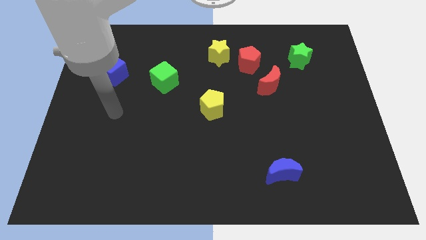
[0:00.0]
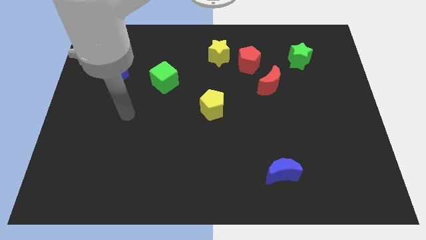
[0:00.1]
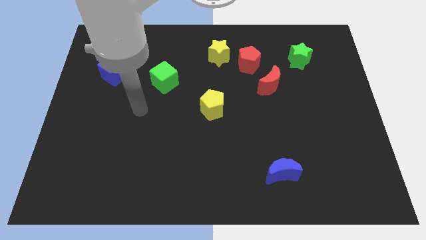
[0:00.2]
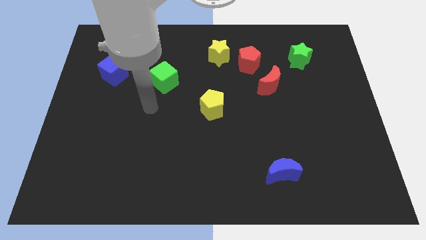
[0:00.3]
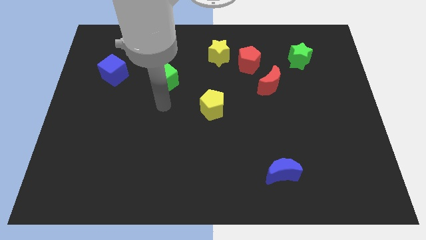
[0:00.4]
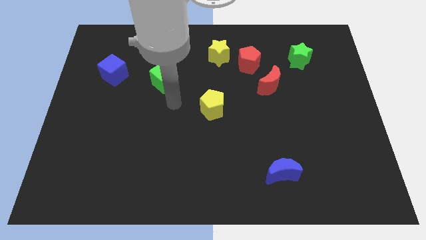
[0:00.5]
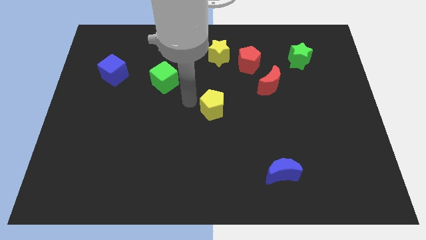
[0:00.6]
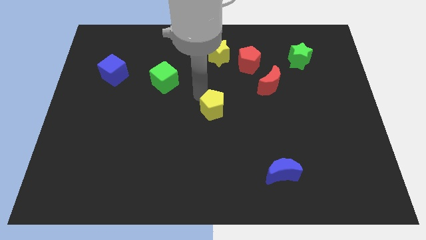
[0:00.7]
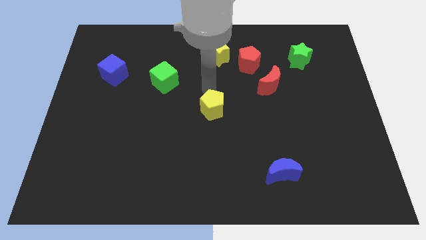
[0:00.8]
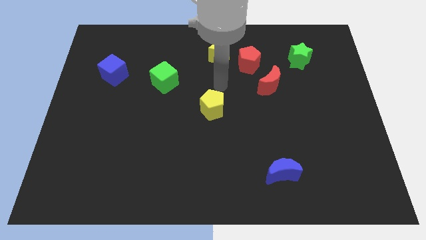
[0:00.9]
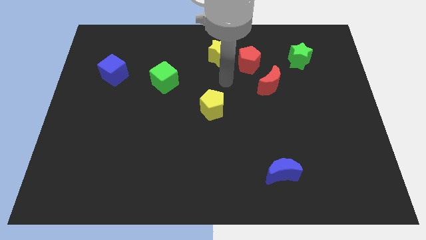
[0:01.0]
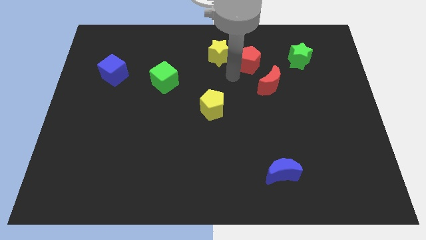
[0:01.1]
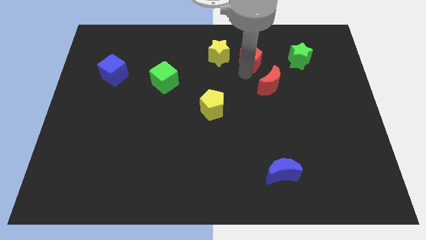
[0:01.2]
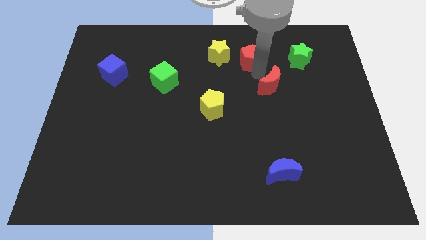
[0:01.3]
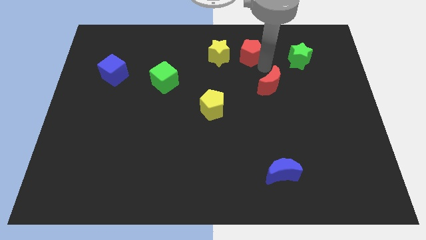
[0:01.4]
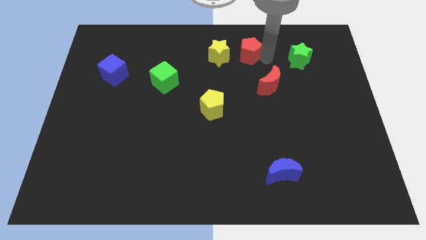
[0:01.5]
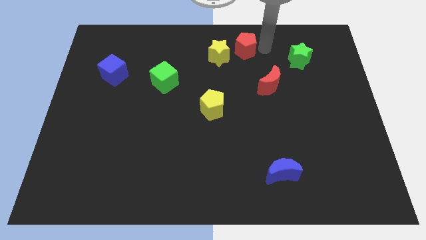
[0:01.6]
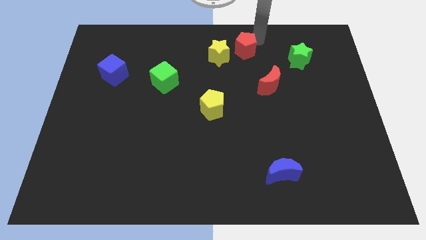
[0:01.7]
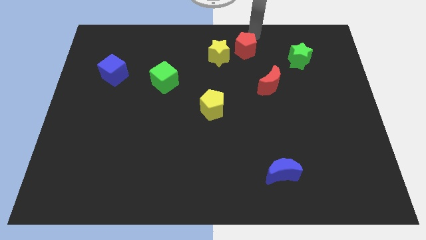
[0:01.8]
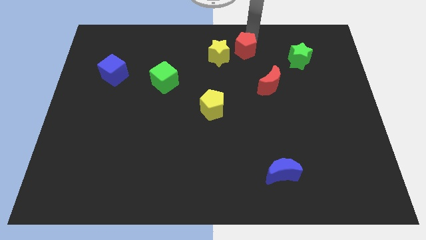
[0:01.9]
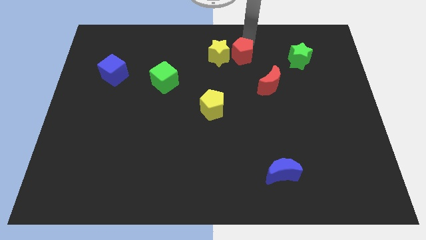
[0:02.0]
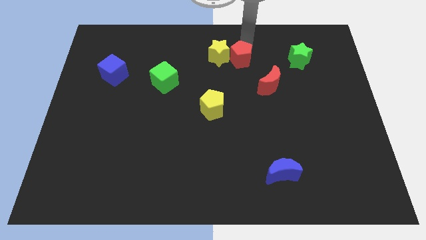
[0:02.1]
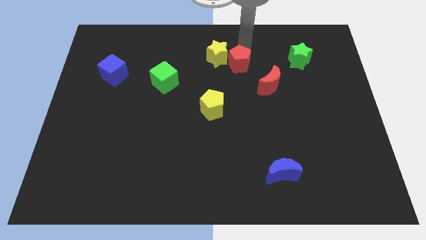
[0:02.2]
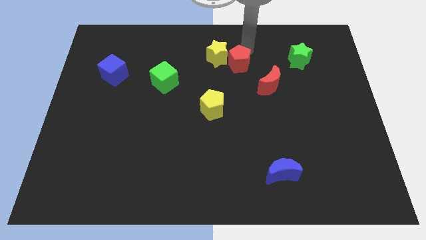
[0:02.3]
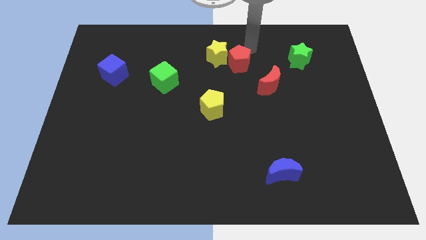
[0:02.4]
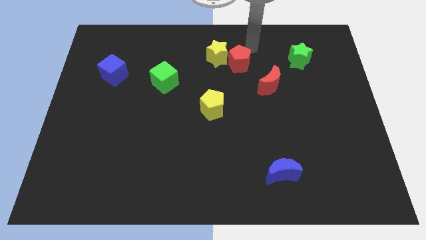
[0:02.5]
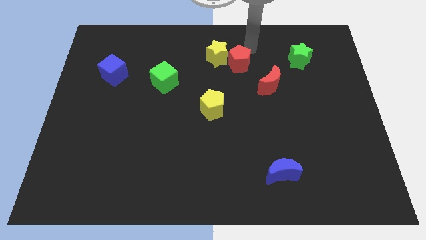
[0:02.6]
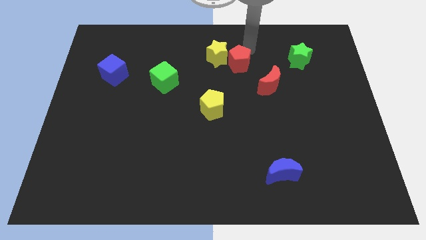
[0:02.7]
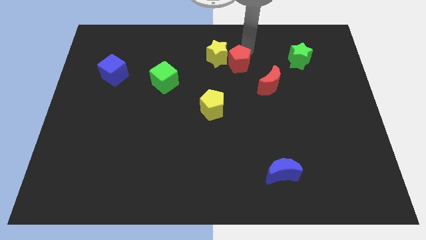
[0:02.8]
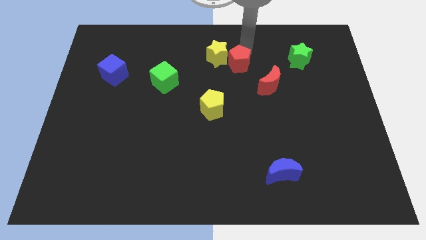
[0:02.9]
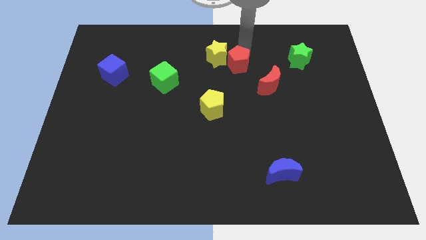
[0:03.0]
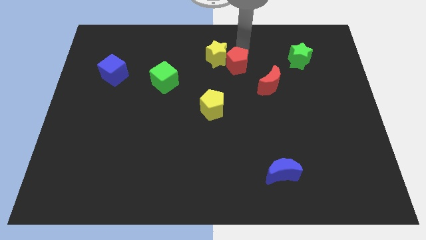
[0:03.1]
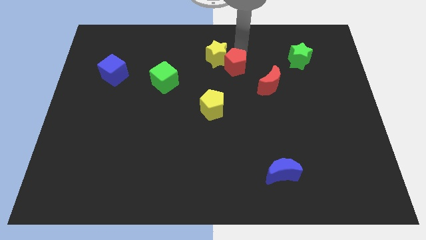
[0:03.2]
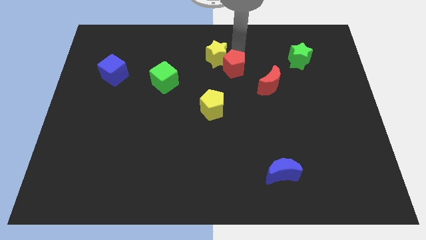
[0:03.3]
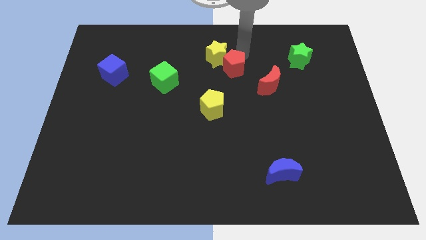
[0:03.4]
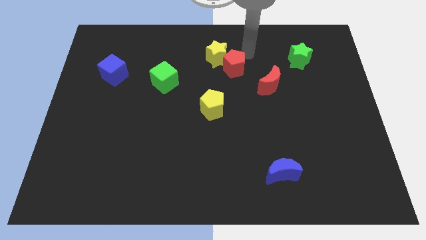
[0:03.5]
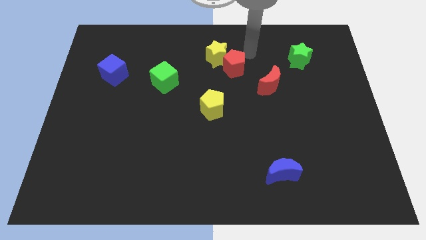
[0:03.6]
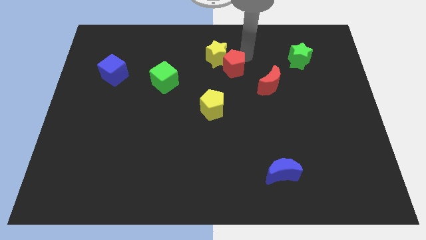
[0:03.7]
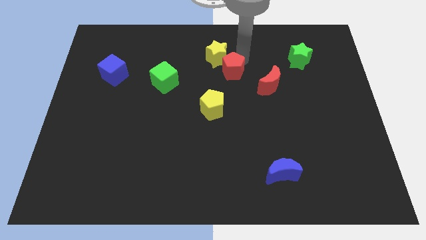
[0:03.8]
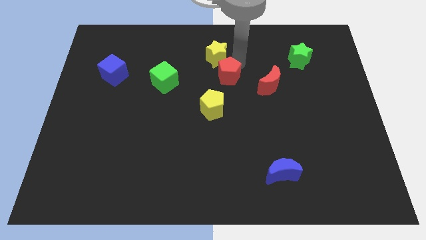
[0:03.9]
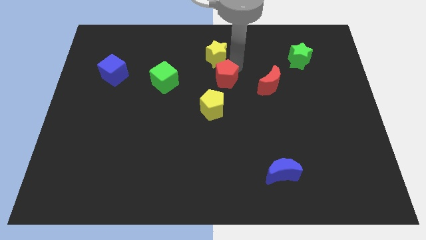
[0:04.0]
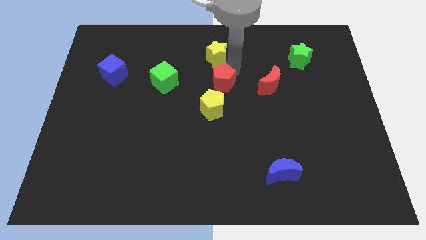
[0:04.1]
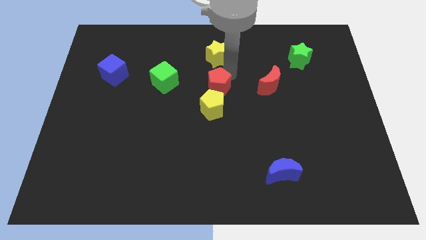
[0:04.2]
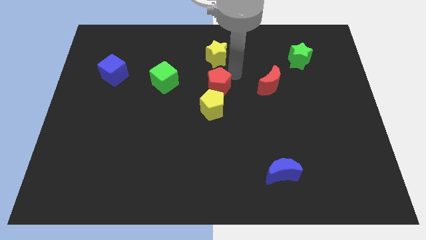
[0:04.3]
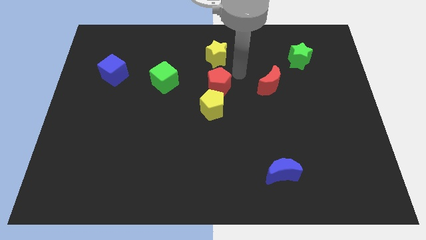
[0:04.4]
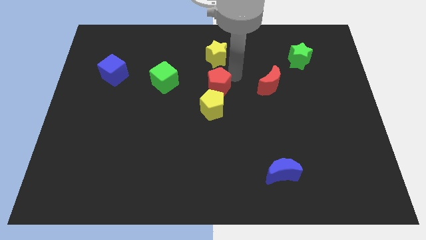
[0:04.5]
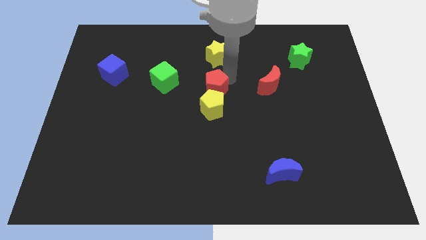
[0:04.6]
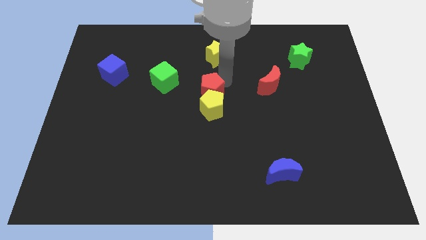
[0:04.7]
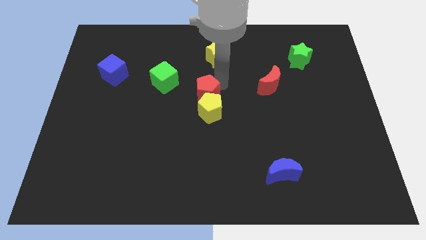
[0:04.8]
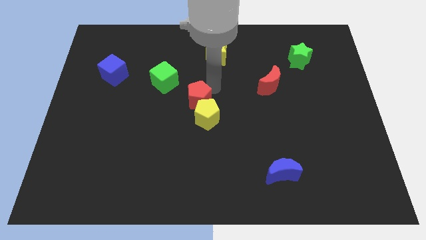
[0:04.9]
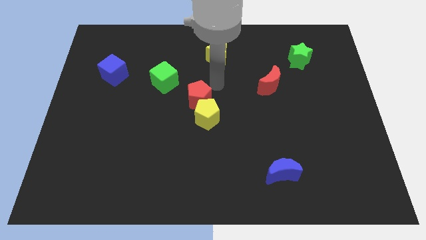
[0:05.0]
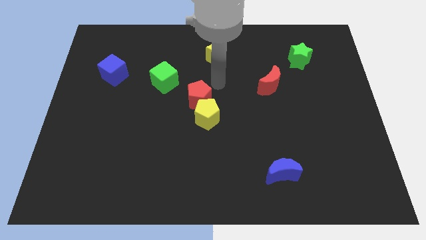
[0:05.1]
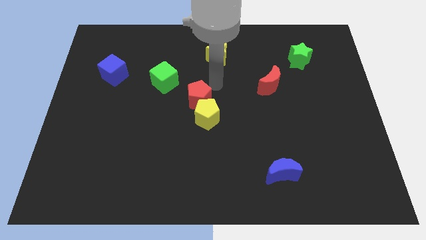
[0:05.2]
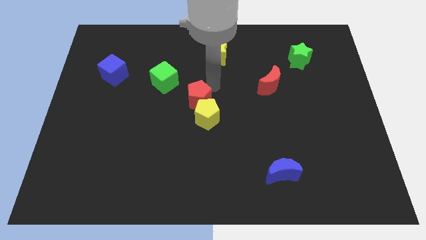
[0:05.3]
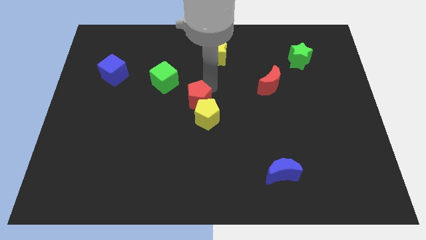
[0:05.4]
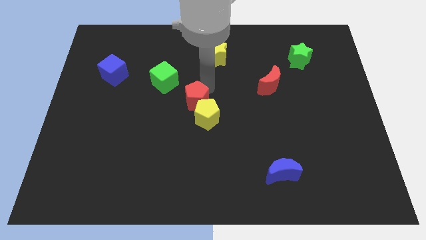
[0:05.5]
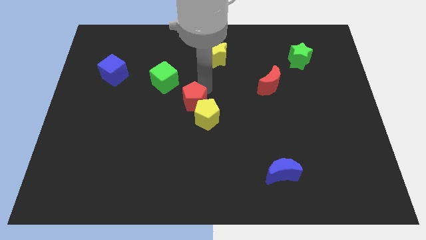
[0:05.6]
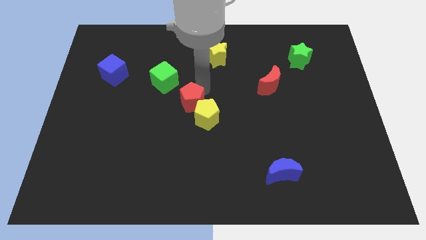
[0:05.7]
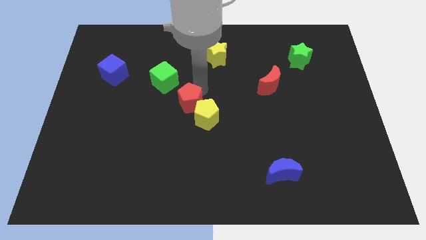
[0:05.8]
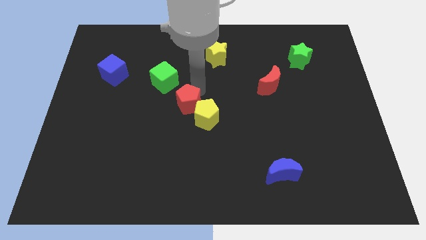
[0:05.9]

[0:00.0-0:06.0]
move the red pentagon downwards and left

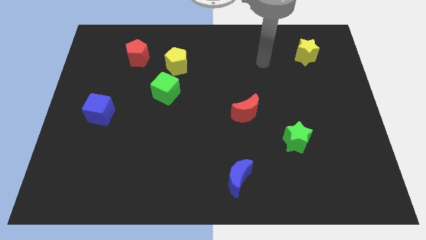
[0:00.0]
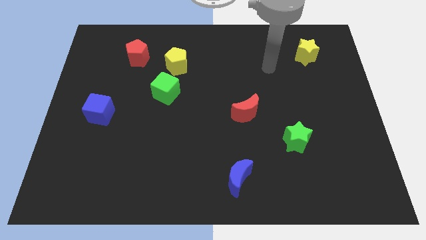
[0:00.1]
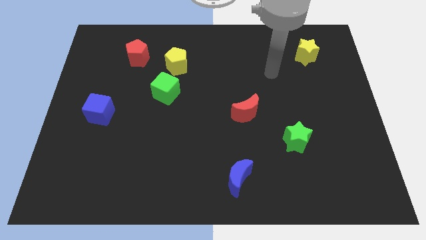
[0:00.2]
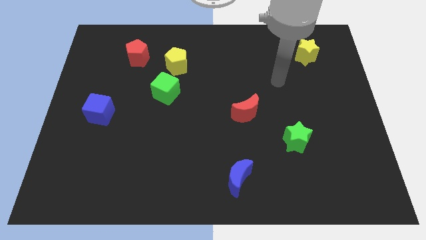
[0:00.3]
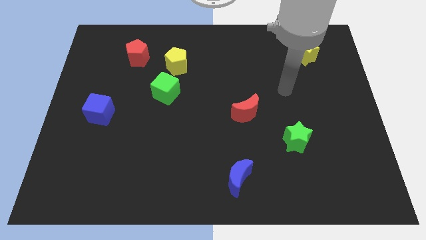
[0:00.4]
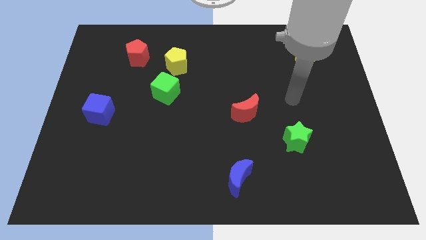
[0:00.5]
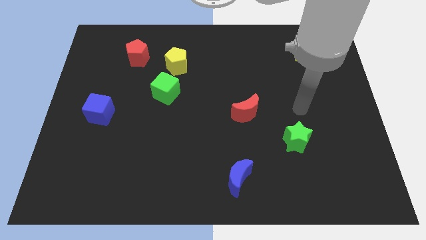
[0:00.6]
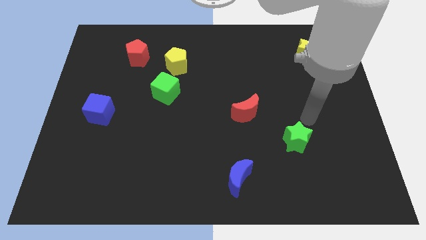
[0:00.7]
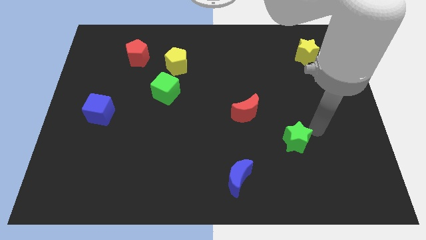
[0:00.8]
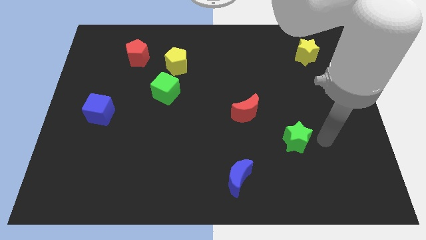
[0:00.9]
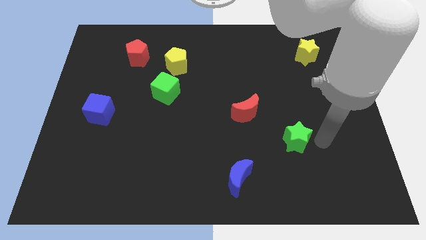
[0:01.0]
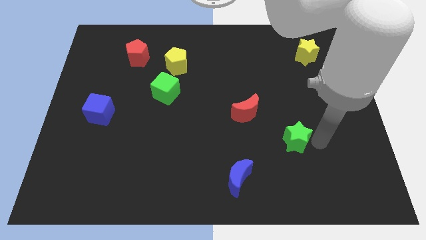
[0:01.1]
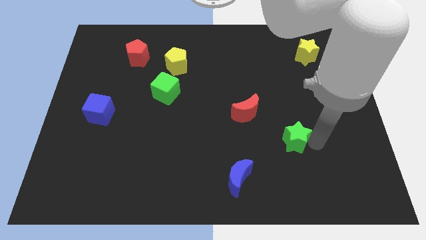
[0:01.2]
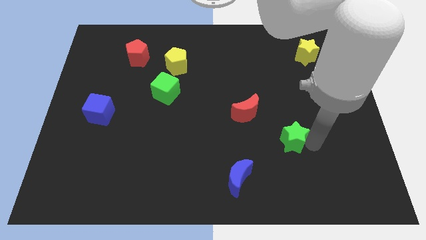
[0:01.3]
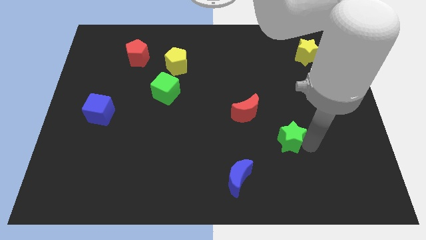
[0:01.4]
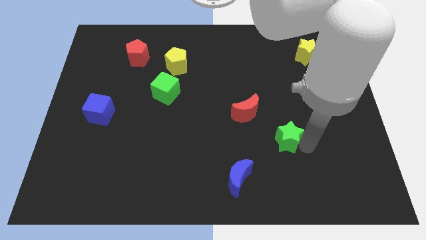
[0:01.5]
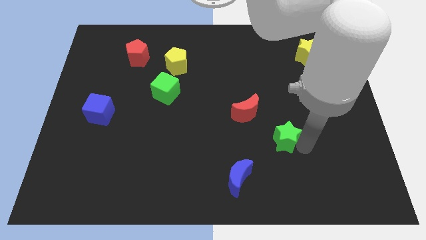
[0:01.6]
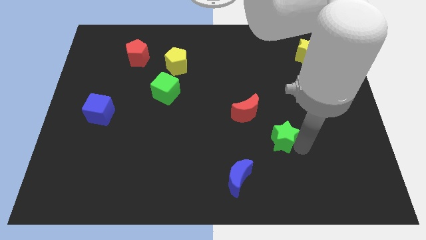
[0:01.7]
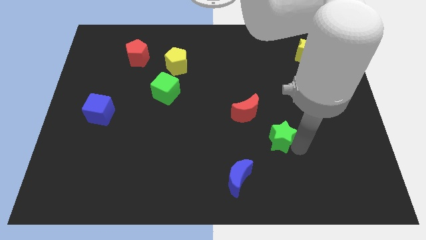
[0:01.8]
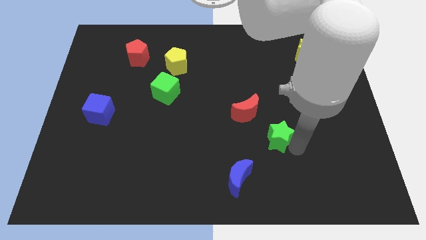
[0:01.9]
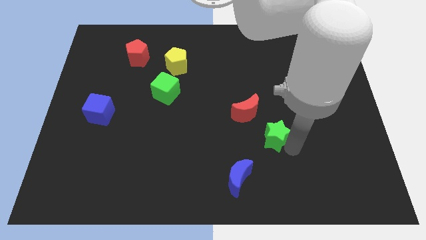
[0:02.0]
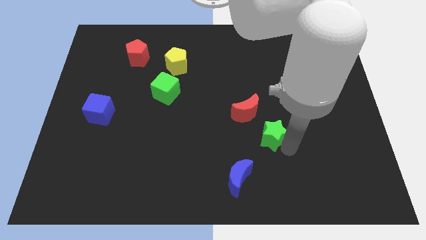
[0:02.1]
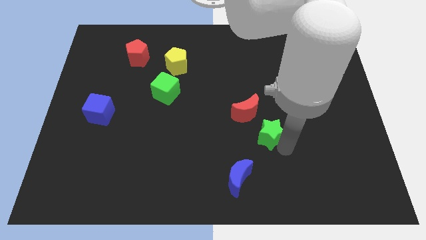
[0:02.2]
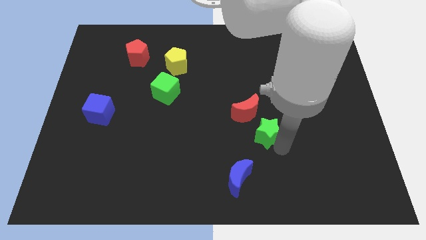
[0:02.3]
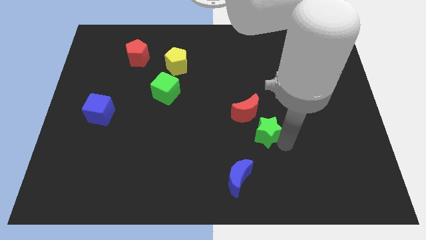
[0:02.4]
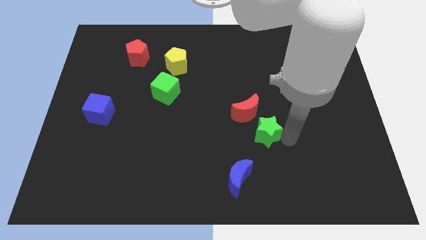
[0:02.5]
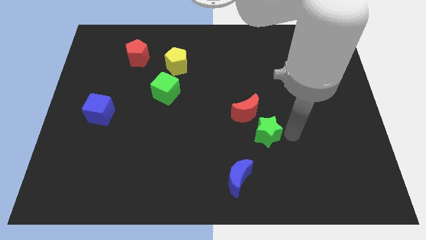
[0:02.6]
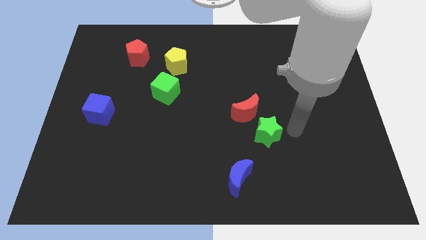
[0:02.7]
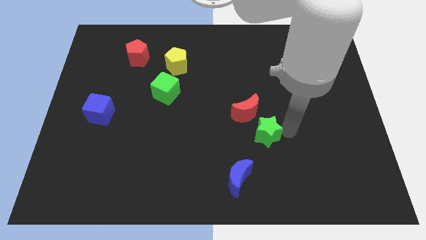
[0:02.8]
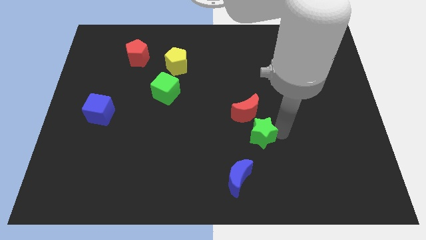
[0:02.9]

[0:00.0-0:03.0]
slide the green star left a little bit
